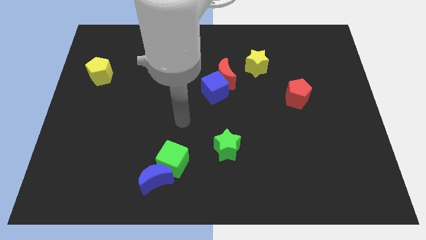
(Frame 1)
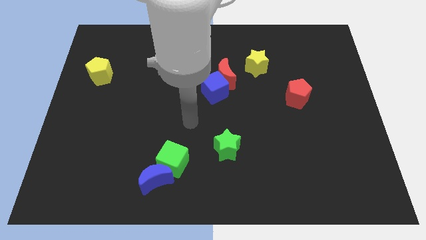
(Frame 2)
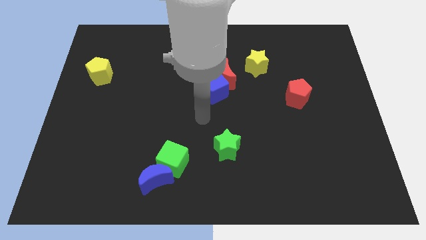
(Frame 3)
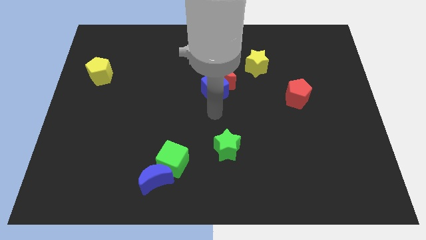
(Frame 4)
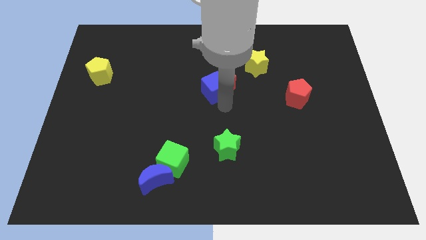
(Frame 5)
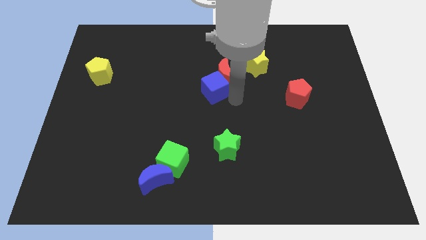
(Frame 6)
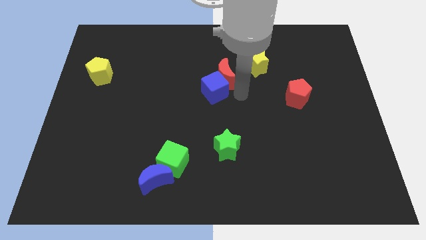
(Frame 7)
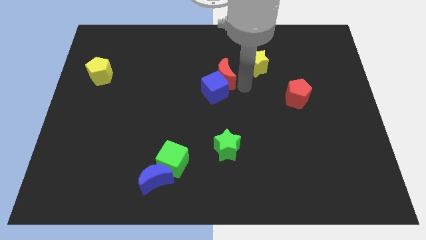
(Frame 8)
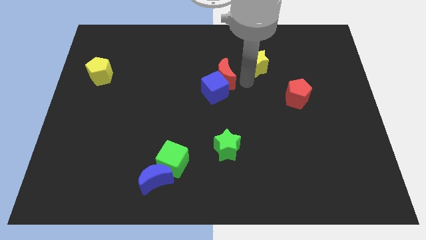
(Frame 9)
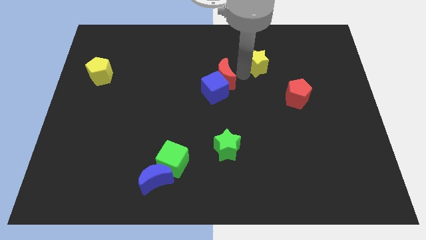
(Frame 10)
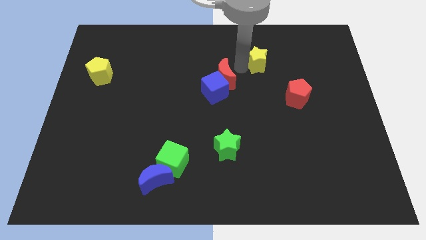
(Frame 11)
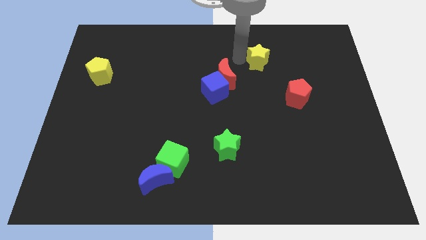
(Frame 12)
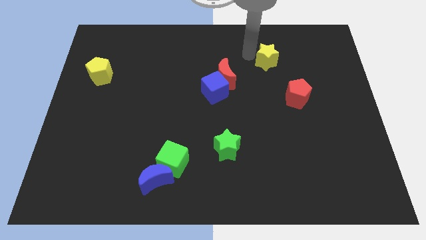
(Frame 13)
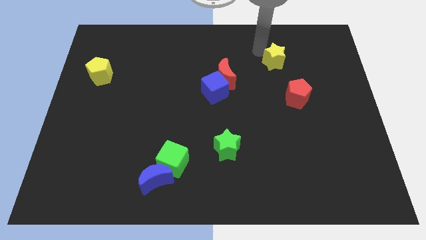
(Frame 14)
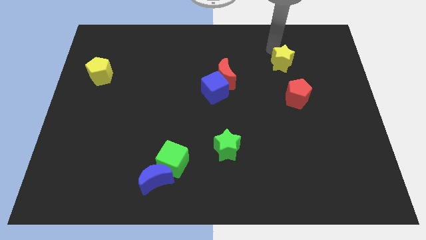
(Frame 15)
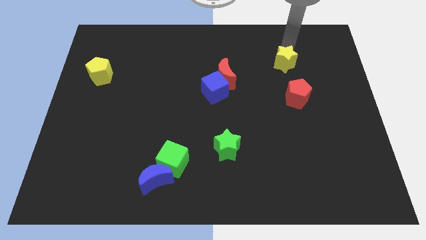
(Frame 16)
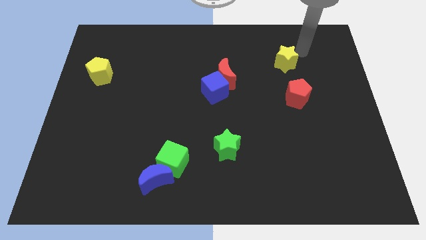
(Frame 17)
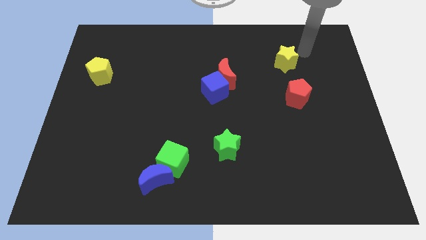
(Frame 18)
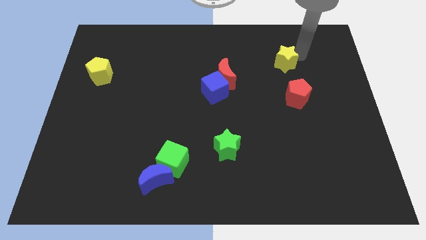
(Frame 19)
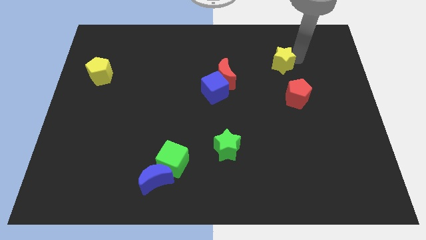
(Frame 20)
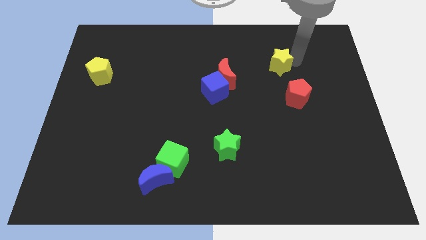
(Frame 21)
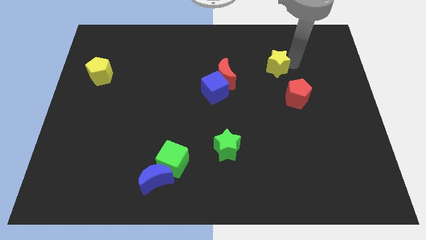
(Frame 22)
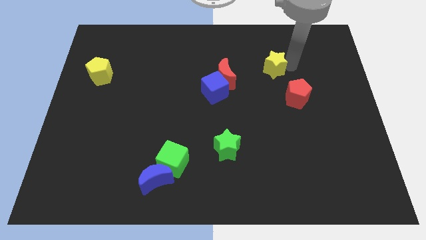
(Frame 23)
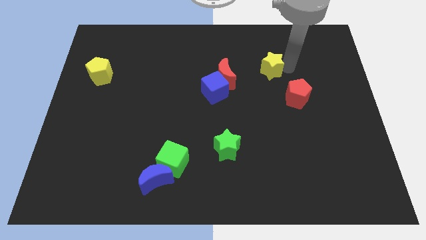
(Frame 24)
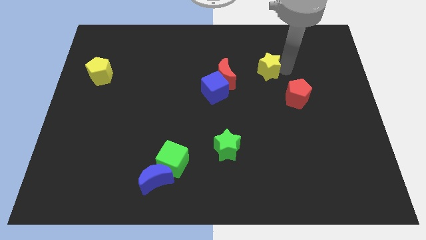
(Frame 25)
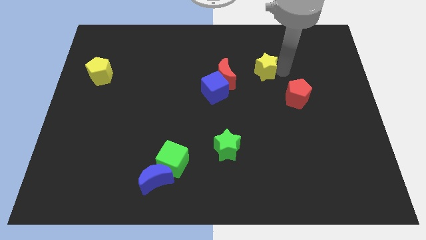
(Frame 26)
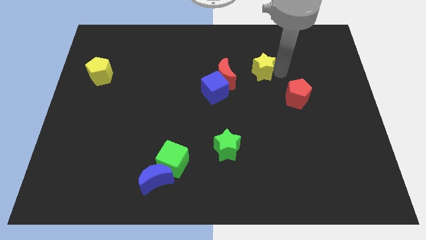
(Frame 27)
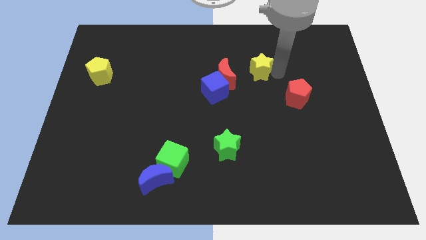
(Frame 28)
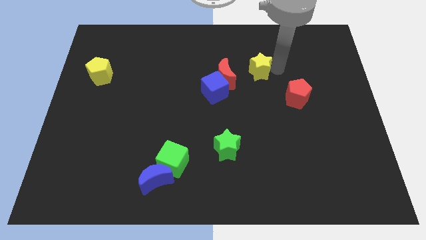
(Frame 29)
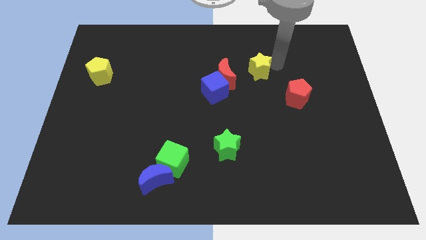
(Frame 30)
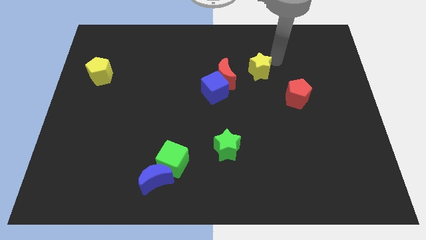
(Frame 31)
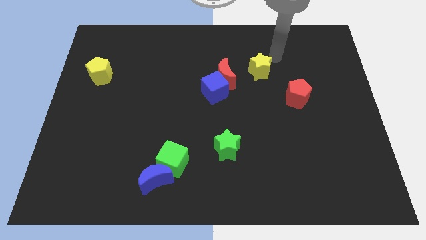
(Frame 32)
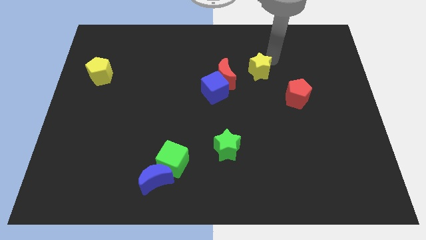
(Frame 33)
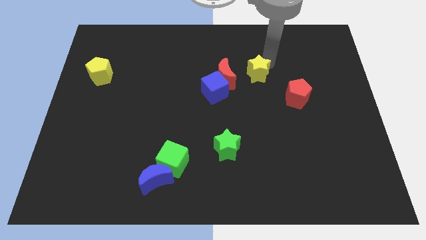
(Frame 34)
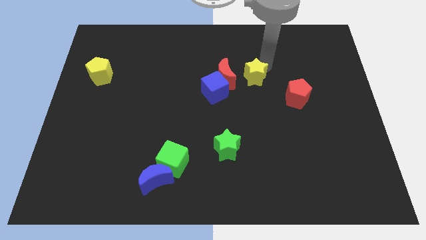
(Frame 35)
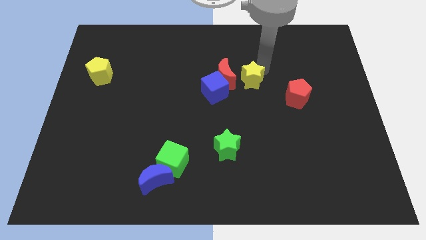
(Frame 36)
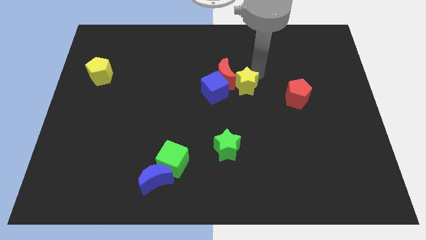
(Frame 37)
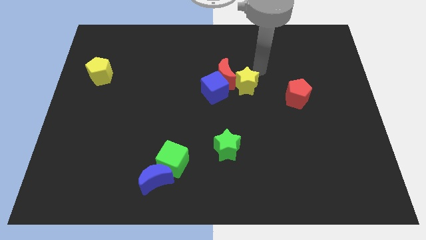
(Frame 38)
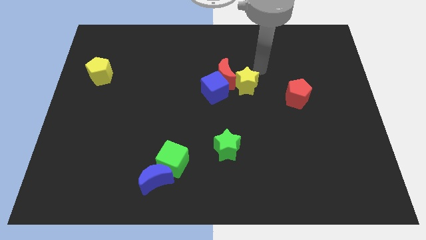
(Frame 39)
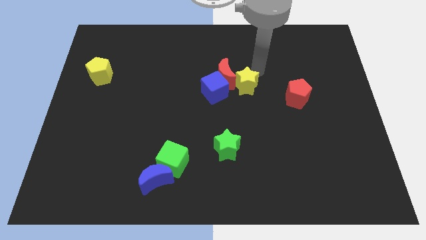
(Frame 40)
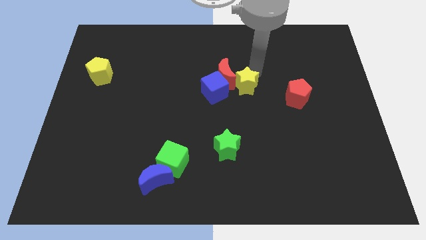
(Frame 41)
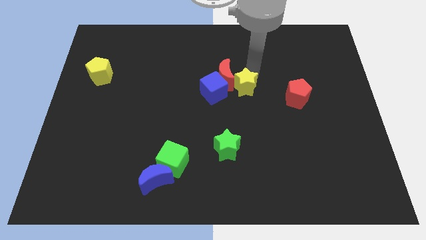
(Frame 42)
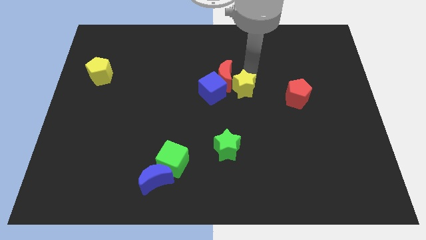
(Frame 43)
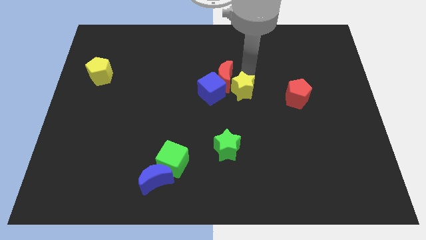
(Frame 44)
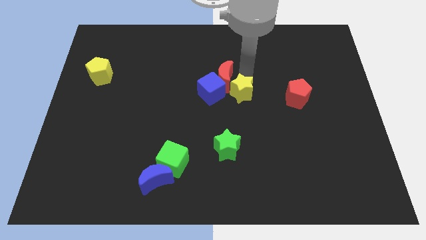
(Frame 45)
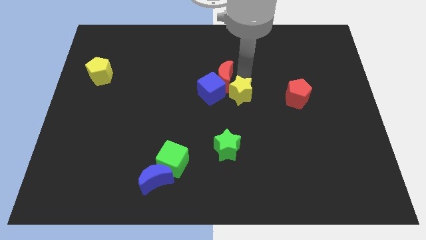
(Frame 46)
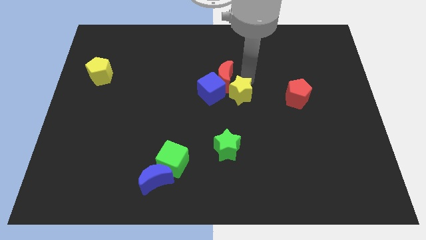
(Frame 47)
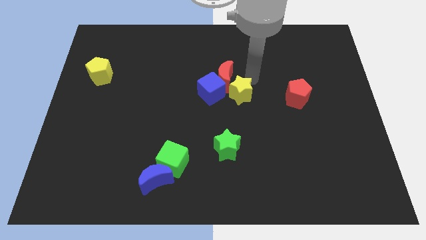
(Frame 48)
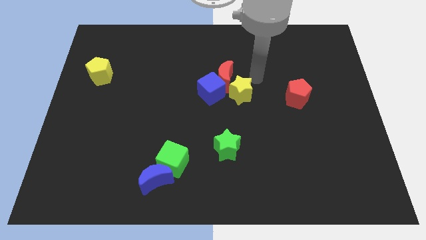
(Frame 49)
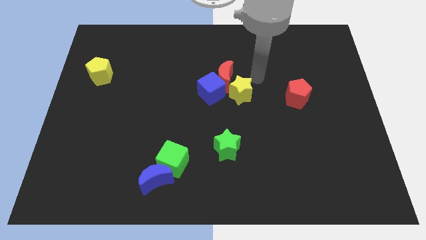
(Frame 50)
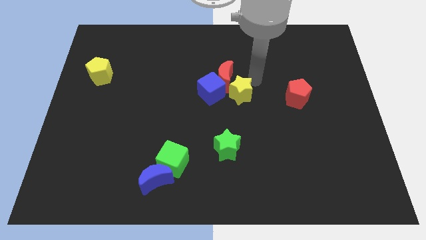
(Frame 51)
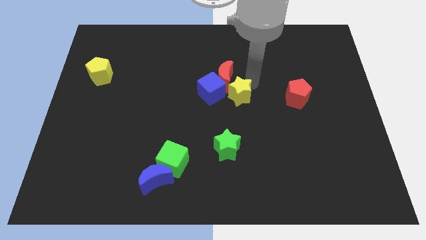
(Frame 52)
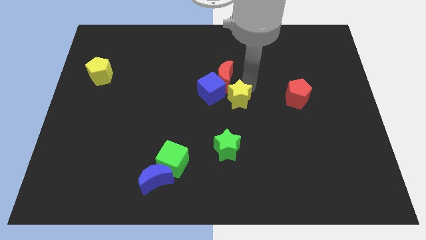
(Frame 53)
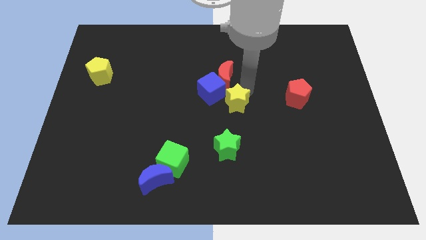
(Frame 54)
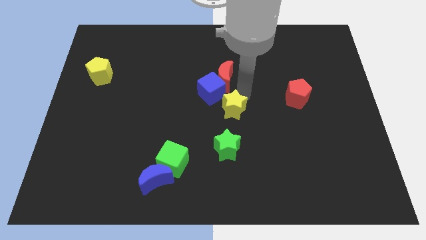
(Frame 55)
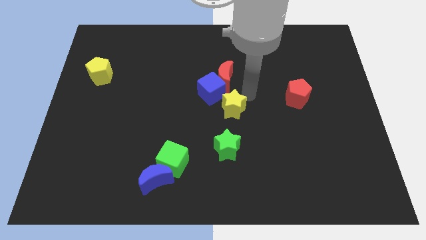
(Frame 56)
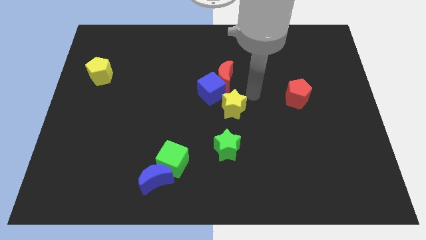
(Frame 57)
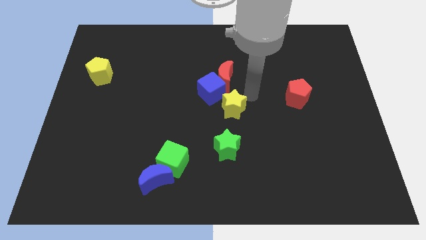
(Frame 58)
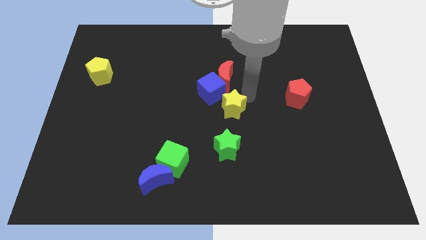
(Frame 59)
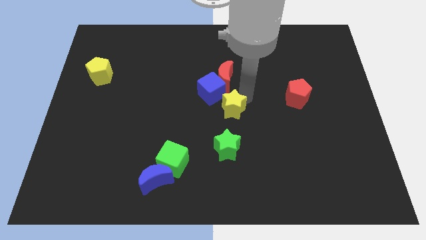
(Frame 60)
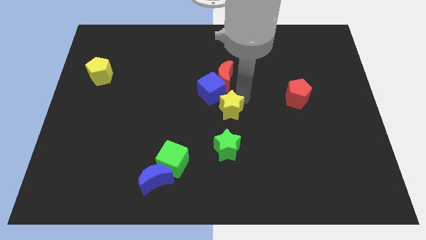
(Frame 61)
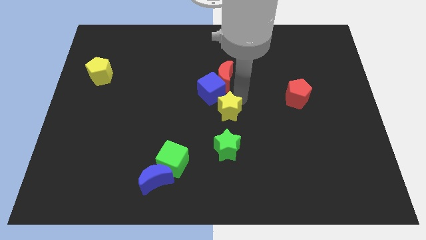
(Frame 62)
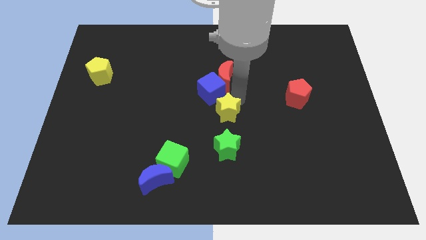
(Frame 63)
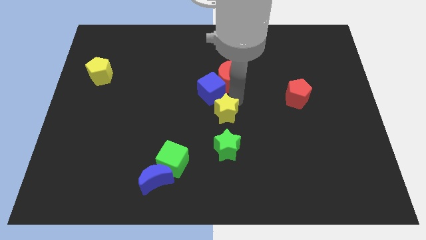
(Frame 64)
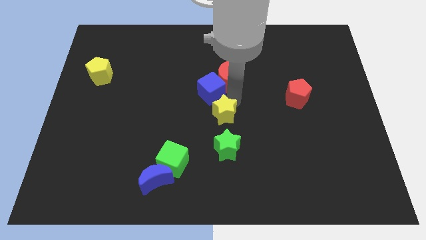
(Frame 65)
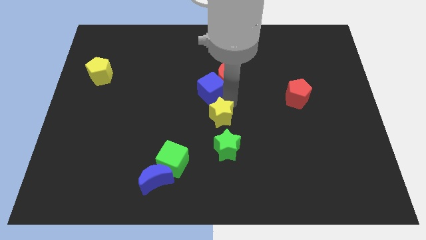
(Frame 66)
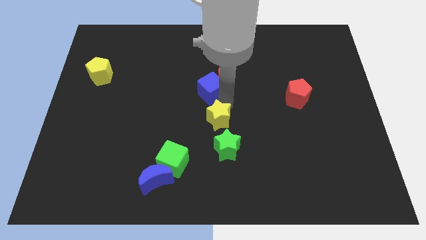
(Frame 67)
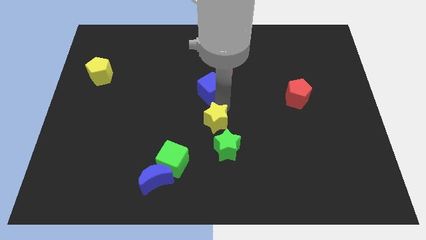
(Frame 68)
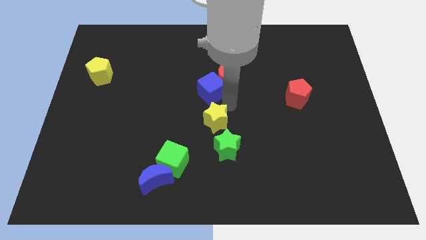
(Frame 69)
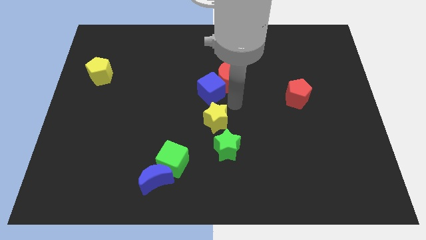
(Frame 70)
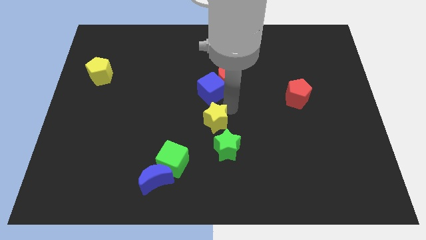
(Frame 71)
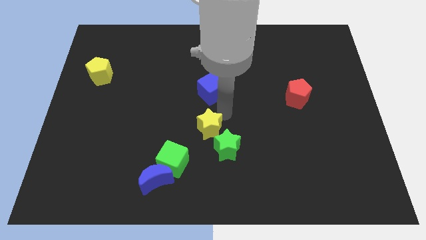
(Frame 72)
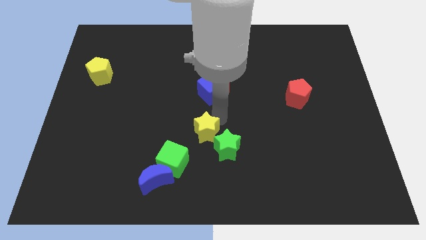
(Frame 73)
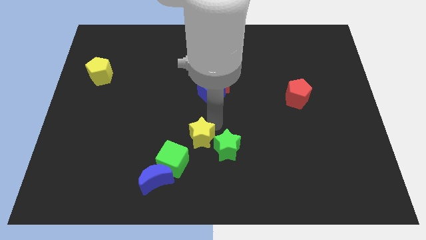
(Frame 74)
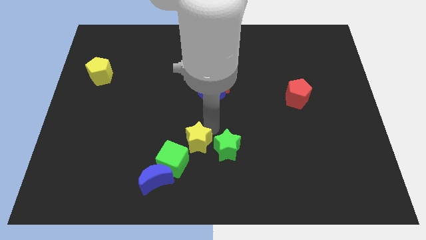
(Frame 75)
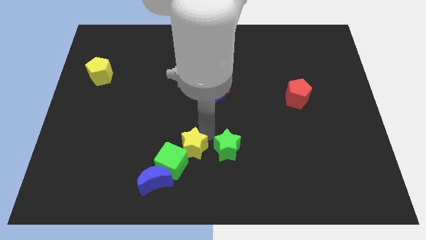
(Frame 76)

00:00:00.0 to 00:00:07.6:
slide the yellow star close to the green cube
